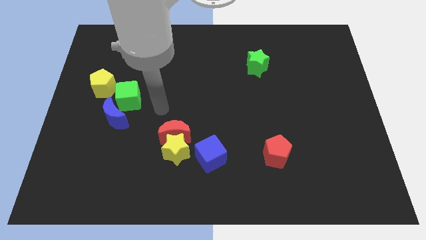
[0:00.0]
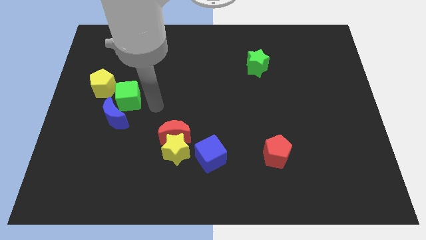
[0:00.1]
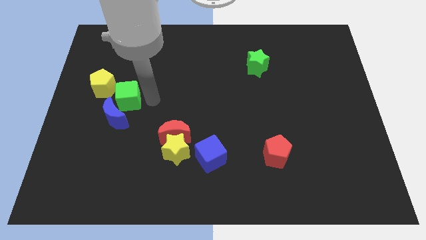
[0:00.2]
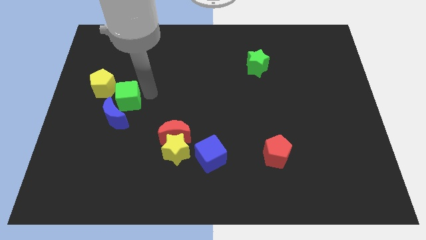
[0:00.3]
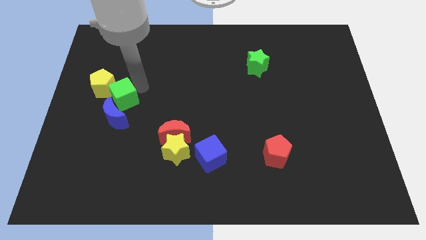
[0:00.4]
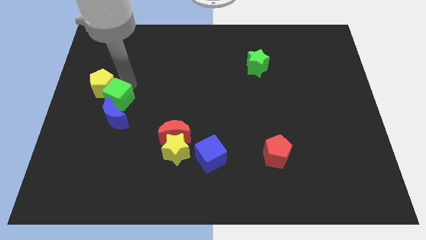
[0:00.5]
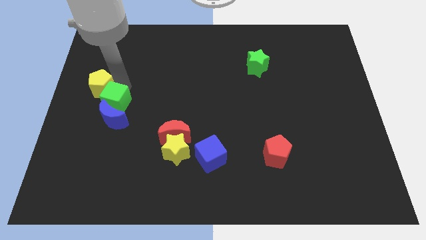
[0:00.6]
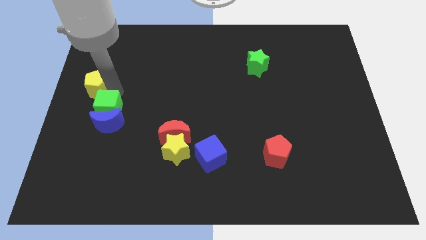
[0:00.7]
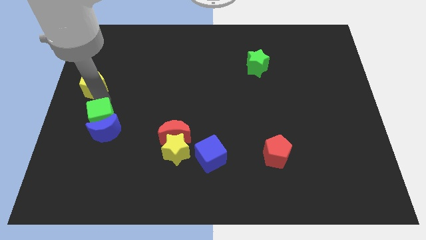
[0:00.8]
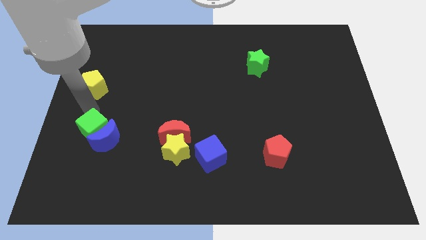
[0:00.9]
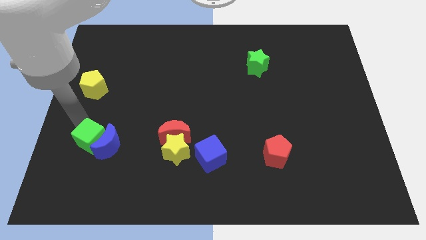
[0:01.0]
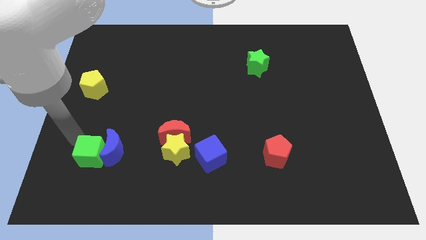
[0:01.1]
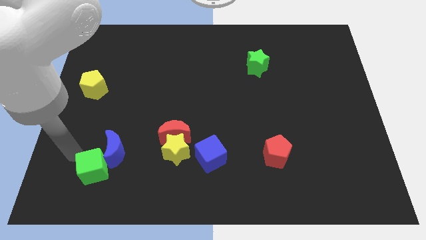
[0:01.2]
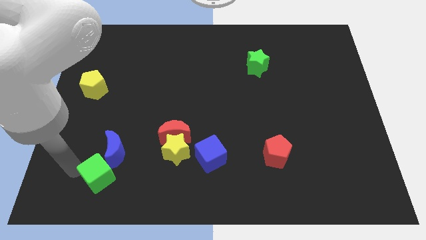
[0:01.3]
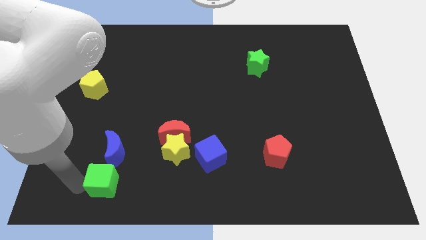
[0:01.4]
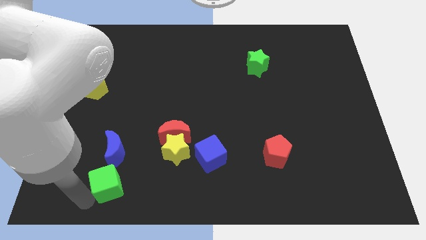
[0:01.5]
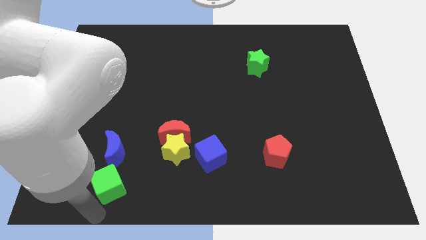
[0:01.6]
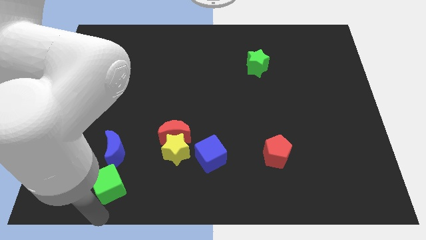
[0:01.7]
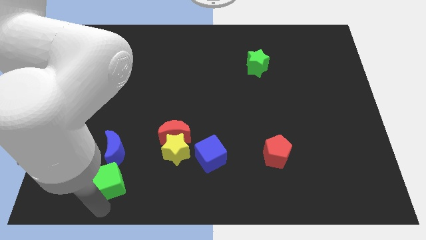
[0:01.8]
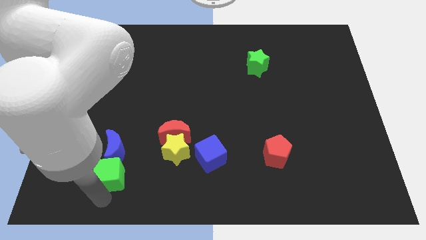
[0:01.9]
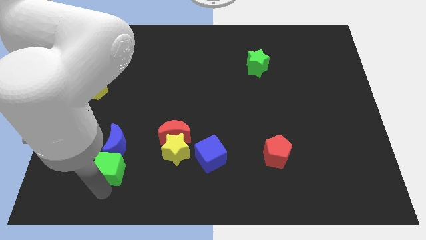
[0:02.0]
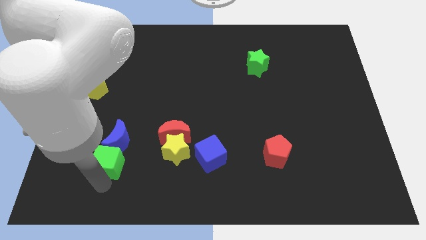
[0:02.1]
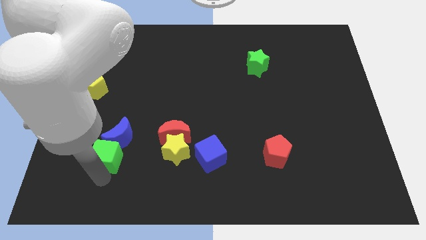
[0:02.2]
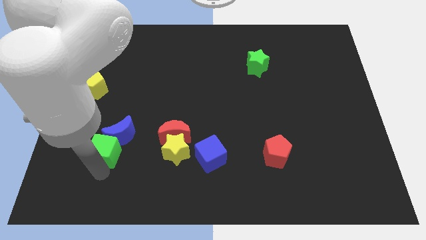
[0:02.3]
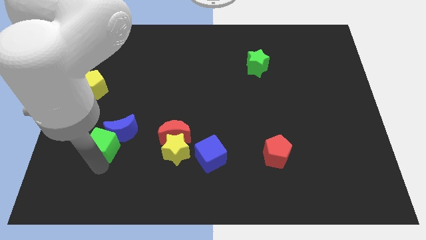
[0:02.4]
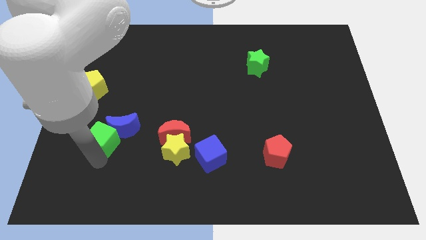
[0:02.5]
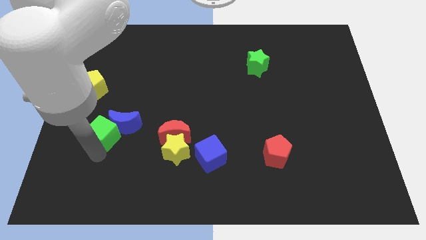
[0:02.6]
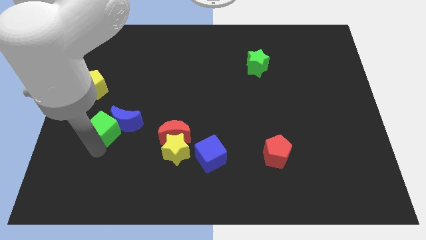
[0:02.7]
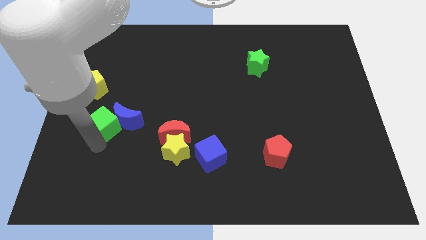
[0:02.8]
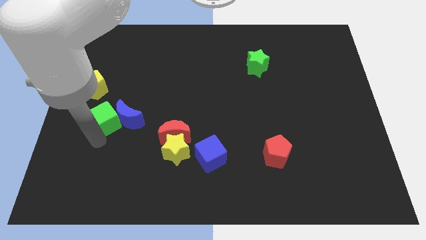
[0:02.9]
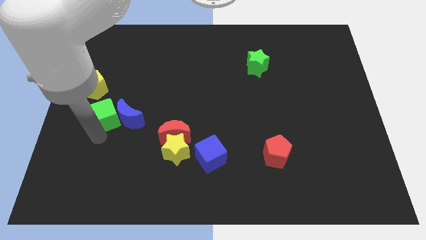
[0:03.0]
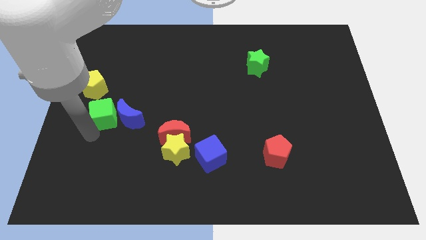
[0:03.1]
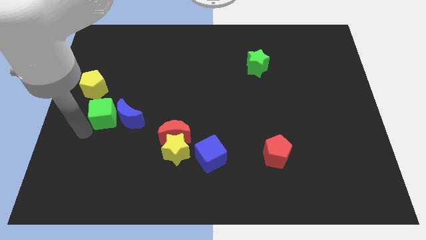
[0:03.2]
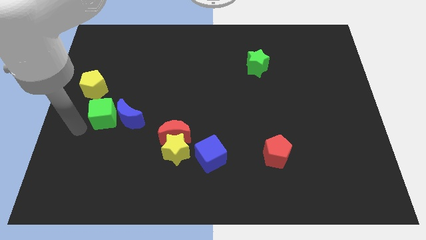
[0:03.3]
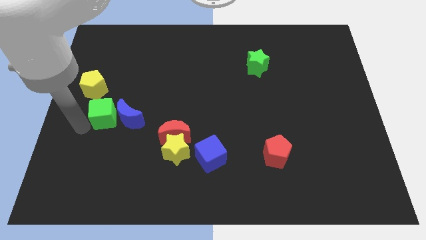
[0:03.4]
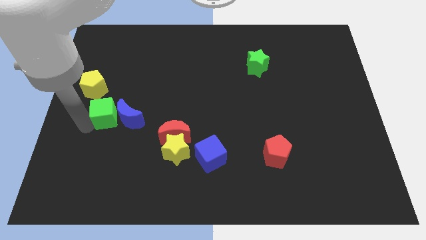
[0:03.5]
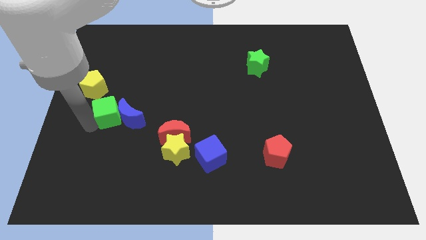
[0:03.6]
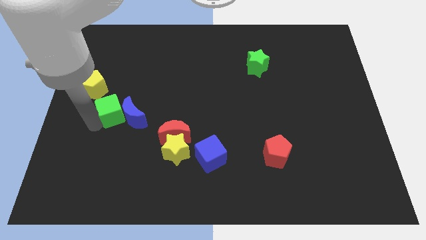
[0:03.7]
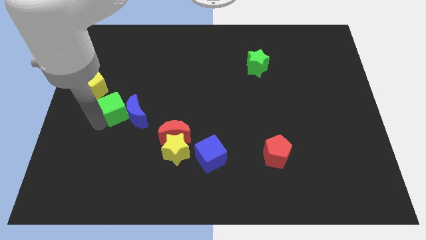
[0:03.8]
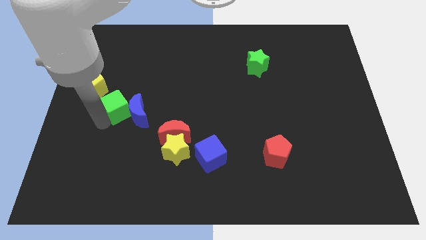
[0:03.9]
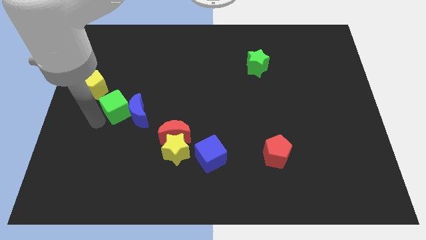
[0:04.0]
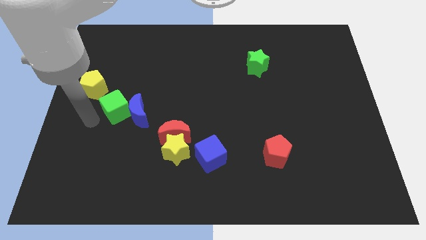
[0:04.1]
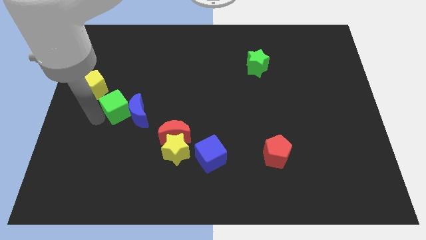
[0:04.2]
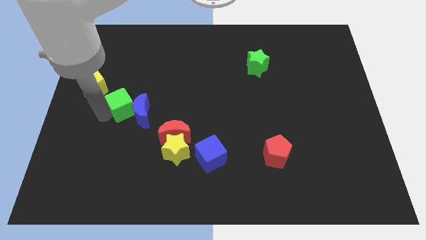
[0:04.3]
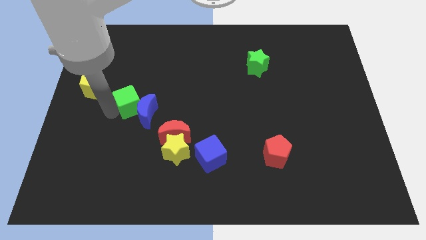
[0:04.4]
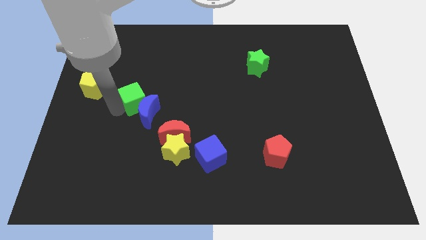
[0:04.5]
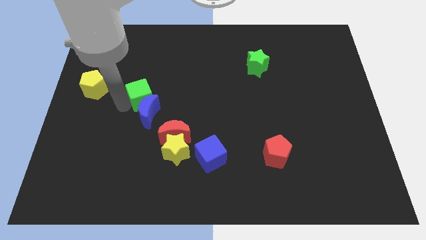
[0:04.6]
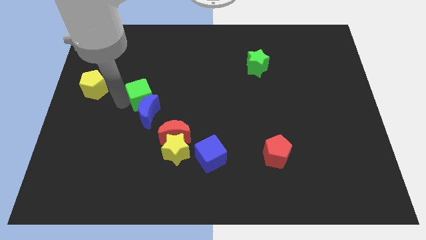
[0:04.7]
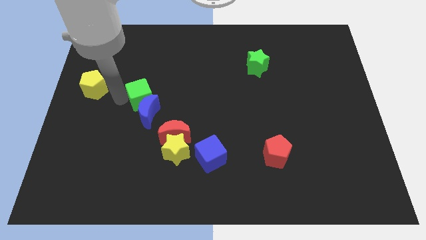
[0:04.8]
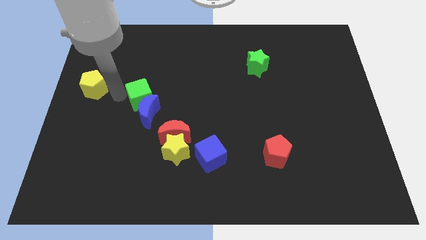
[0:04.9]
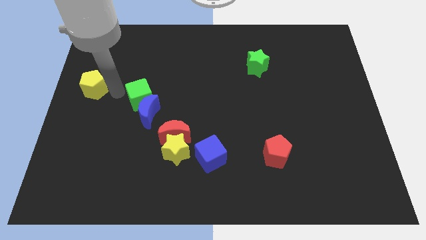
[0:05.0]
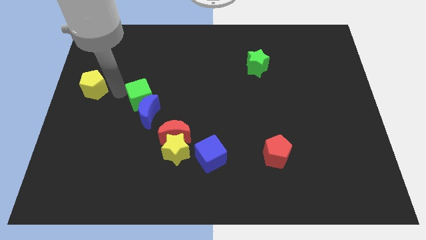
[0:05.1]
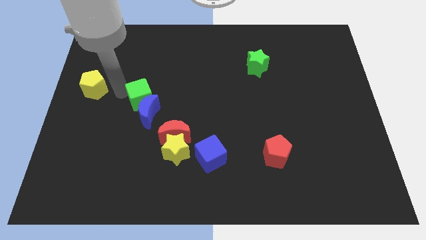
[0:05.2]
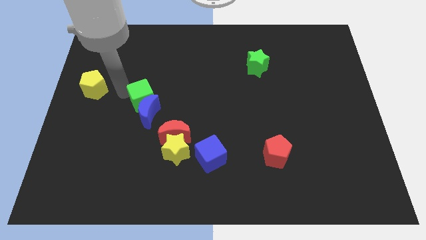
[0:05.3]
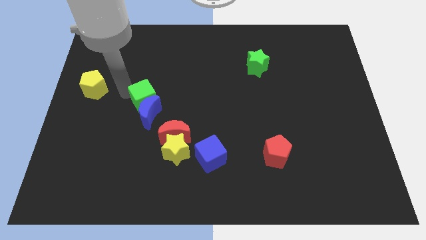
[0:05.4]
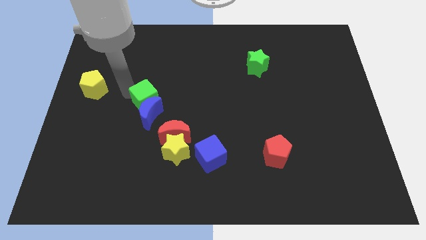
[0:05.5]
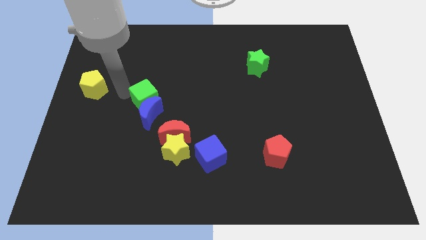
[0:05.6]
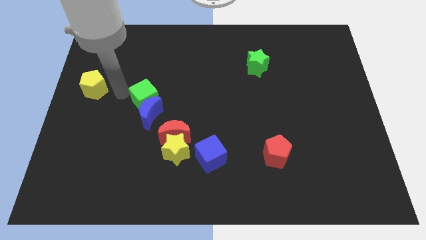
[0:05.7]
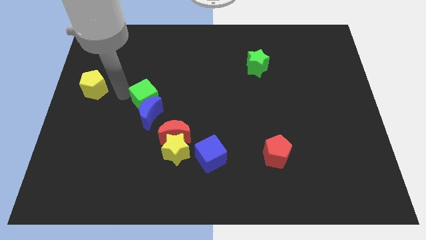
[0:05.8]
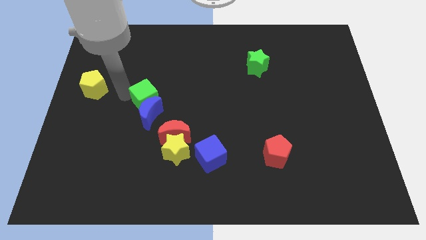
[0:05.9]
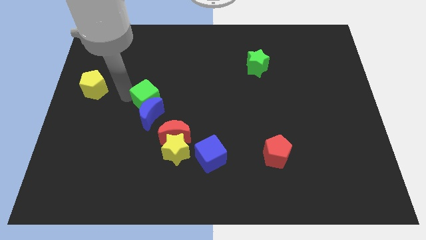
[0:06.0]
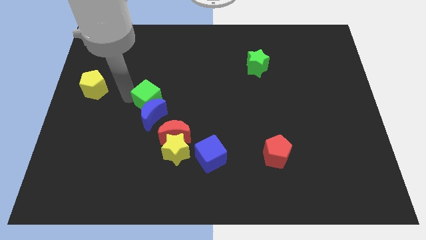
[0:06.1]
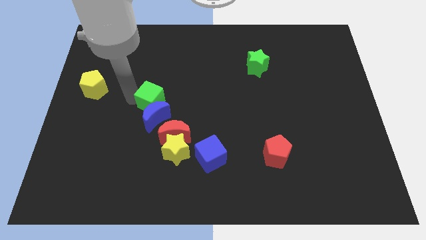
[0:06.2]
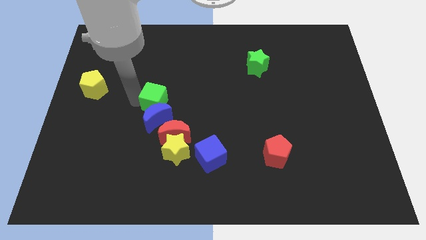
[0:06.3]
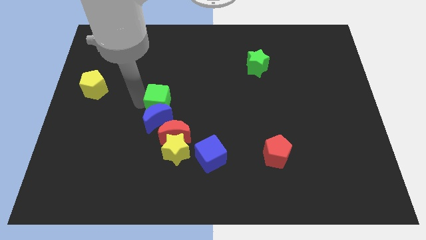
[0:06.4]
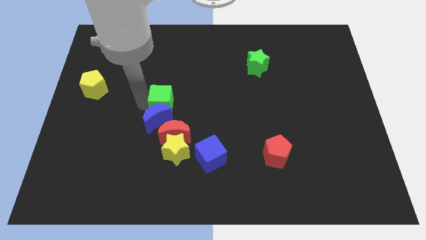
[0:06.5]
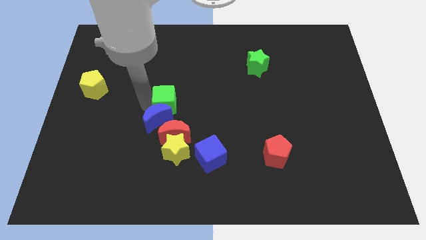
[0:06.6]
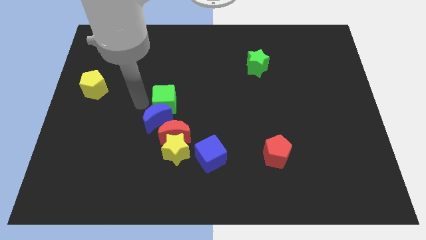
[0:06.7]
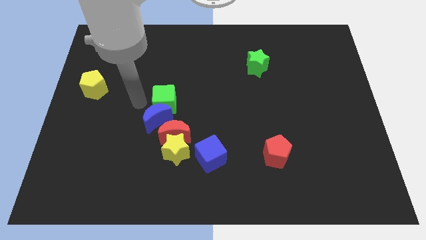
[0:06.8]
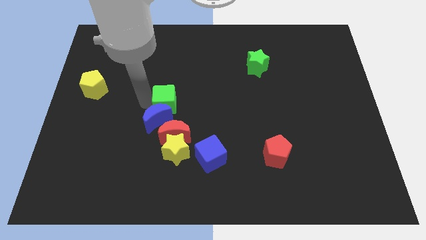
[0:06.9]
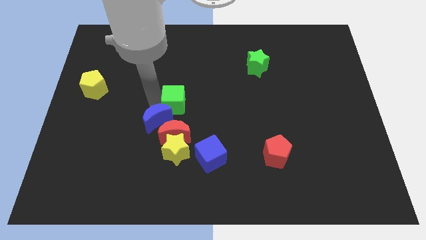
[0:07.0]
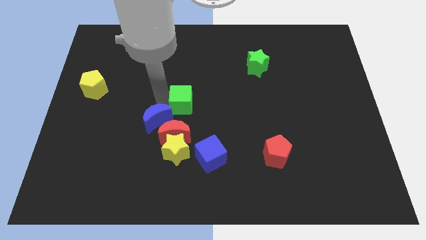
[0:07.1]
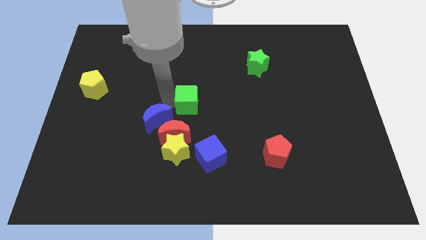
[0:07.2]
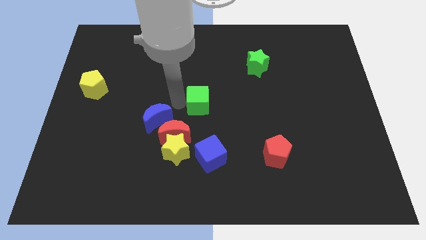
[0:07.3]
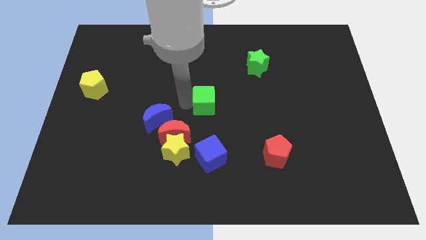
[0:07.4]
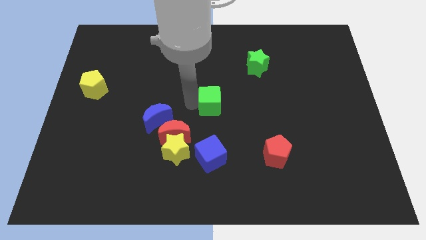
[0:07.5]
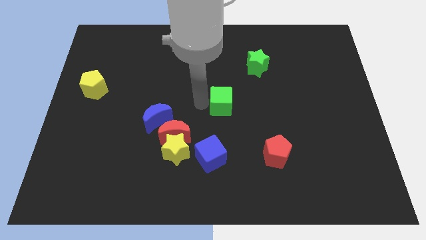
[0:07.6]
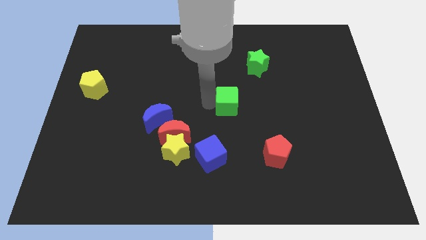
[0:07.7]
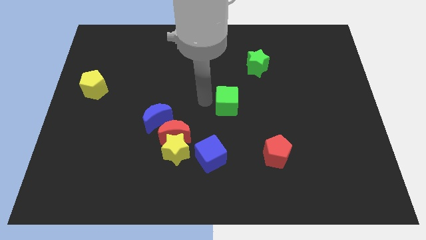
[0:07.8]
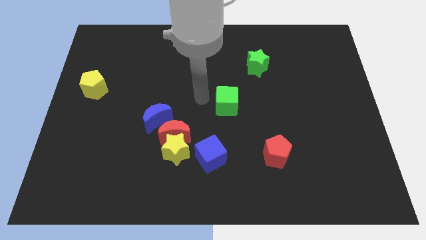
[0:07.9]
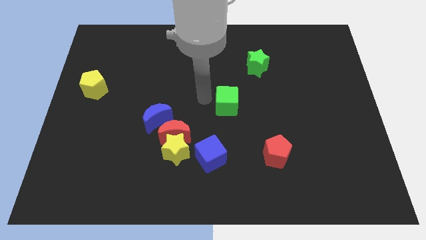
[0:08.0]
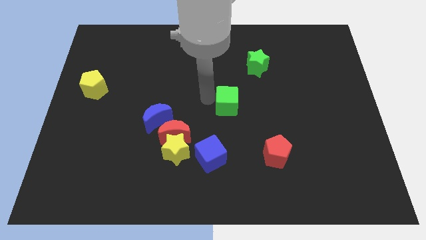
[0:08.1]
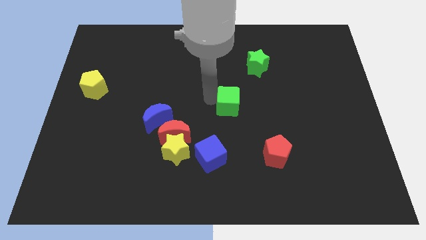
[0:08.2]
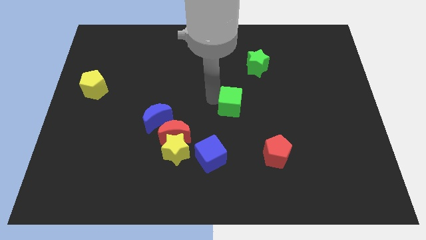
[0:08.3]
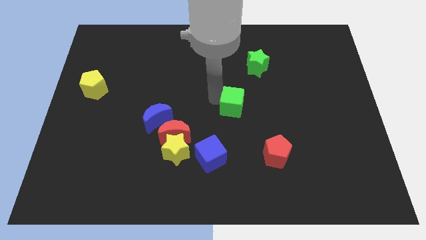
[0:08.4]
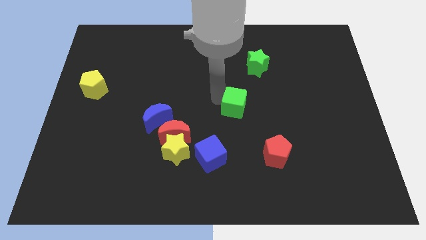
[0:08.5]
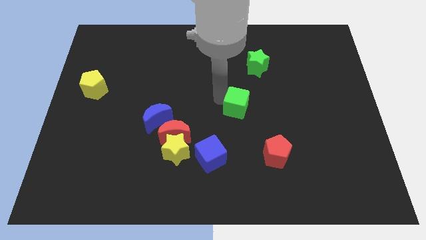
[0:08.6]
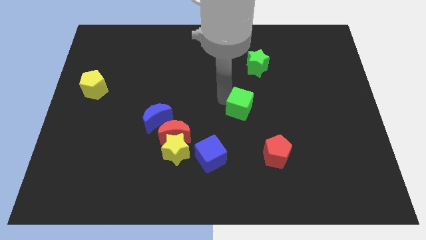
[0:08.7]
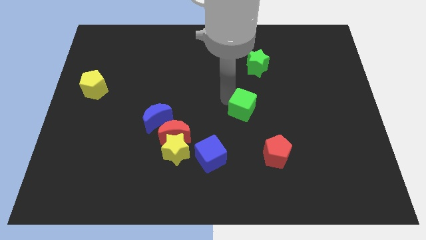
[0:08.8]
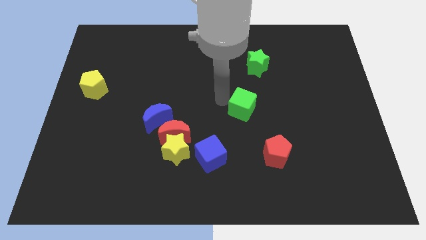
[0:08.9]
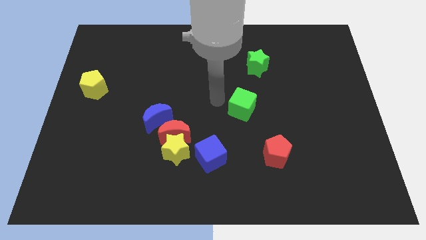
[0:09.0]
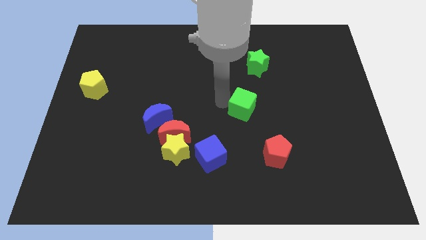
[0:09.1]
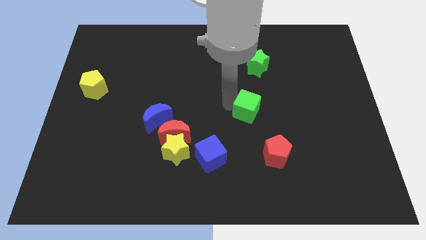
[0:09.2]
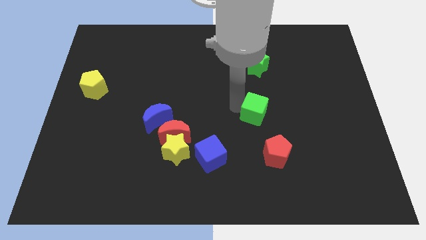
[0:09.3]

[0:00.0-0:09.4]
put the green cube to the top side of the red pentagon
